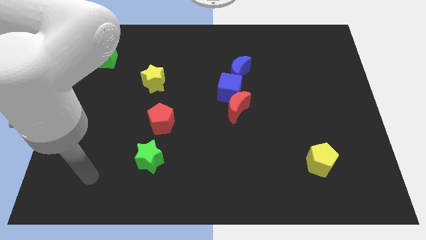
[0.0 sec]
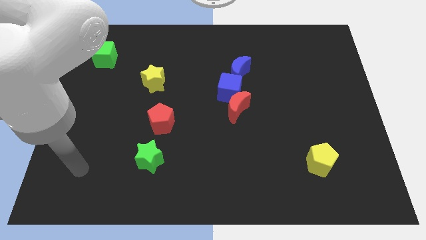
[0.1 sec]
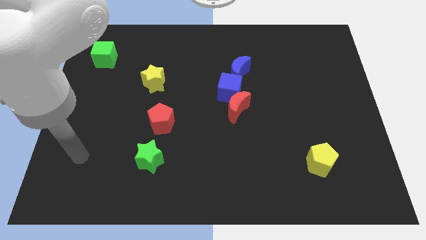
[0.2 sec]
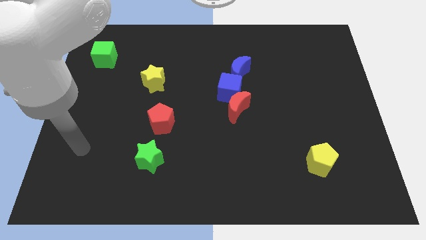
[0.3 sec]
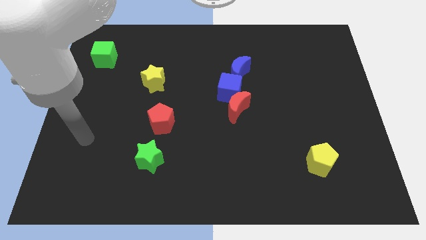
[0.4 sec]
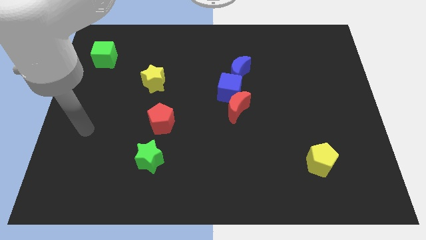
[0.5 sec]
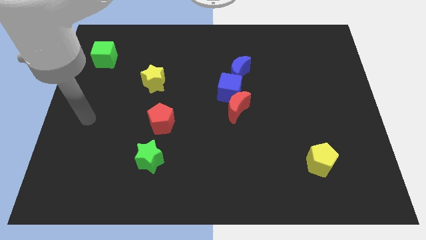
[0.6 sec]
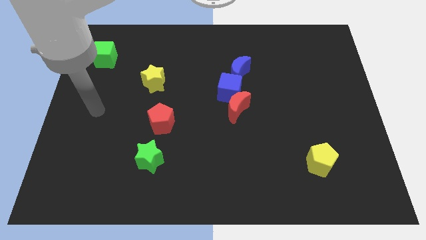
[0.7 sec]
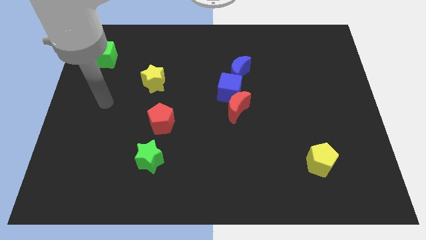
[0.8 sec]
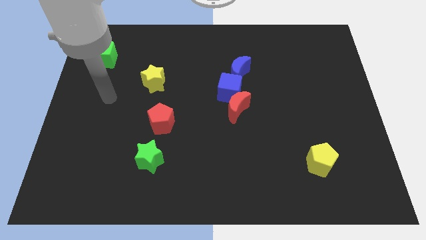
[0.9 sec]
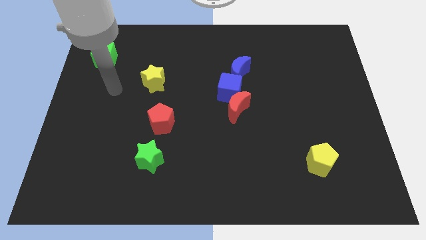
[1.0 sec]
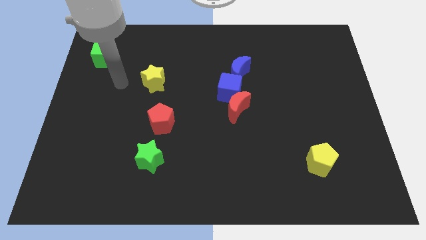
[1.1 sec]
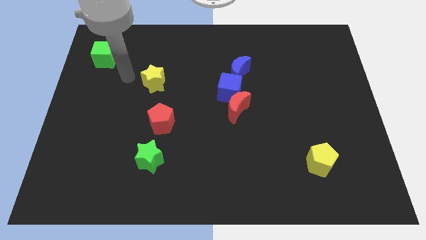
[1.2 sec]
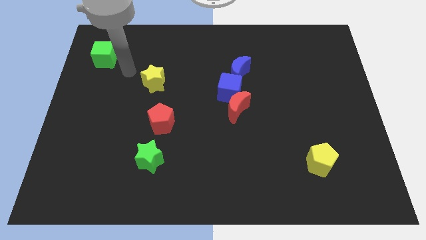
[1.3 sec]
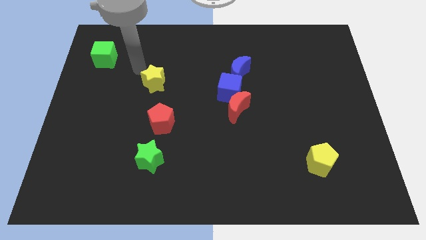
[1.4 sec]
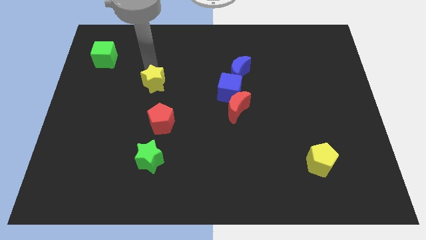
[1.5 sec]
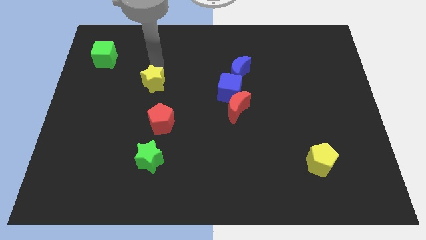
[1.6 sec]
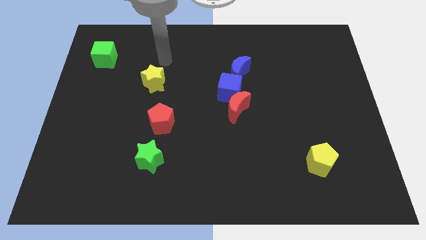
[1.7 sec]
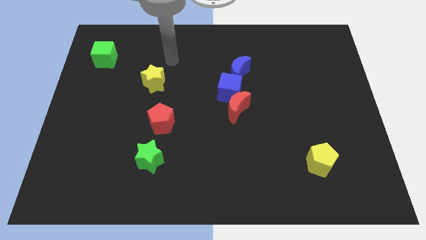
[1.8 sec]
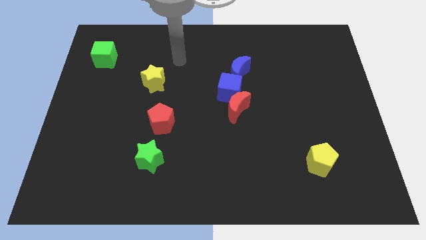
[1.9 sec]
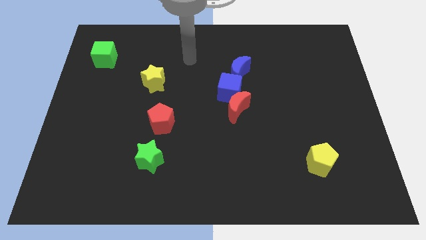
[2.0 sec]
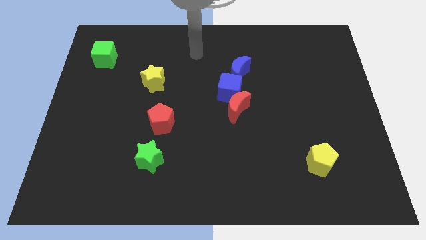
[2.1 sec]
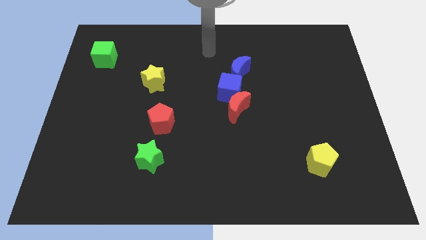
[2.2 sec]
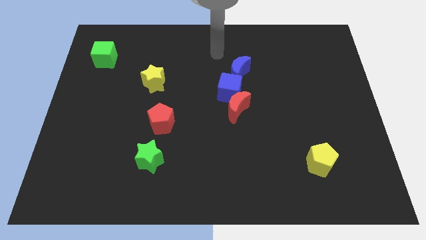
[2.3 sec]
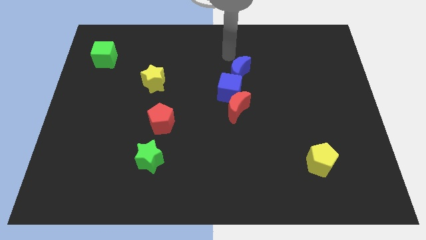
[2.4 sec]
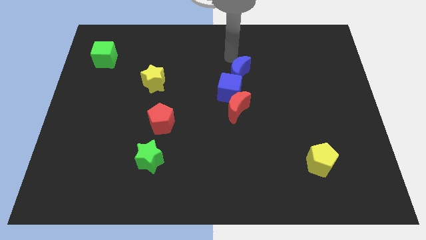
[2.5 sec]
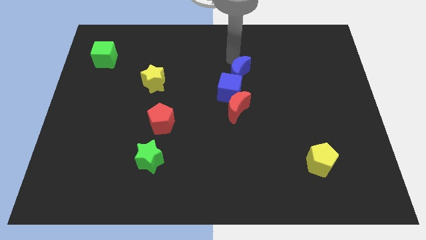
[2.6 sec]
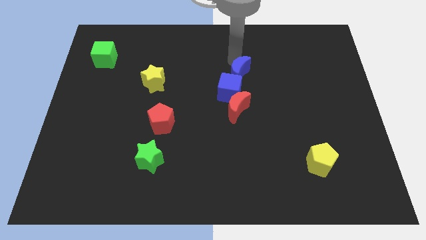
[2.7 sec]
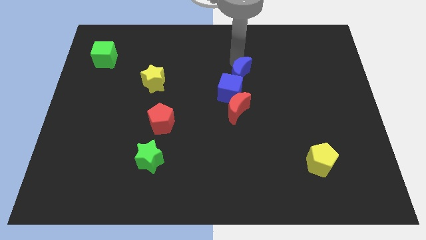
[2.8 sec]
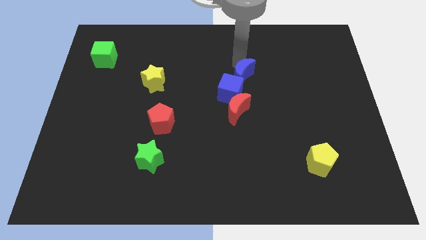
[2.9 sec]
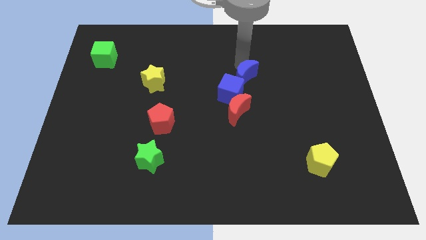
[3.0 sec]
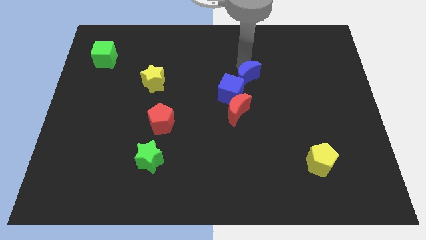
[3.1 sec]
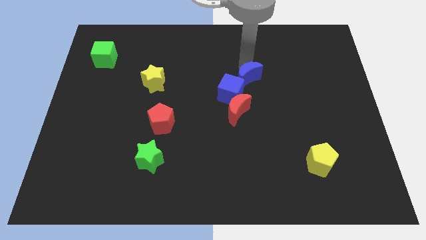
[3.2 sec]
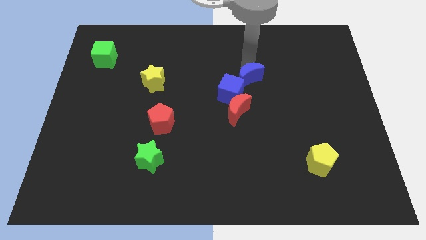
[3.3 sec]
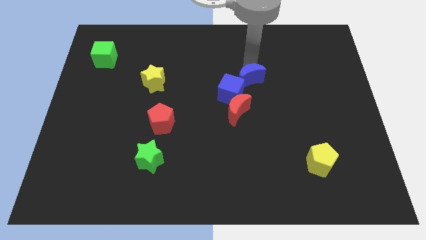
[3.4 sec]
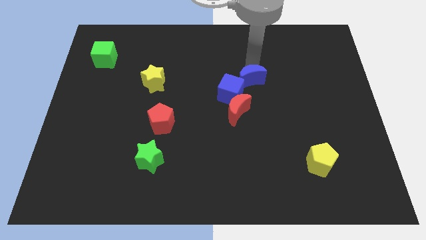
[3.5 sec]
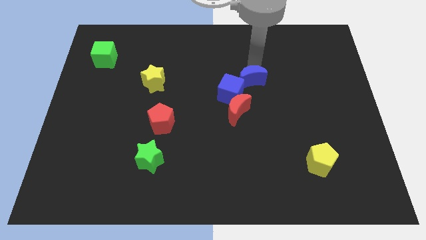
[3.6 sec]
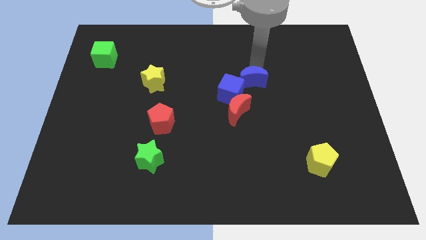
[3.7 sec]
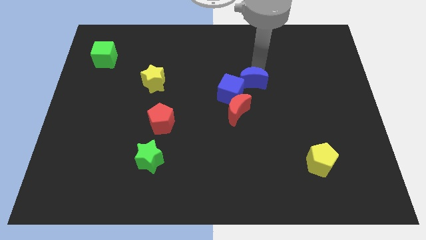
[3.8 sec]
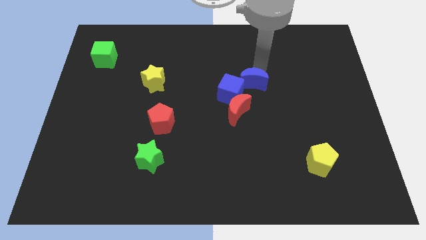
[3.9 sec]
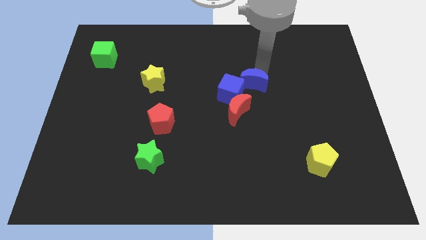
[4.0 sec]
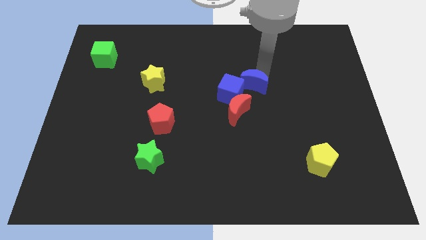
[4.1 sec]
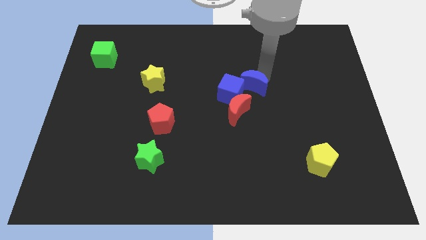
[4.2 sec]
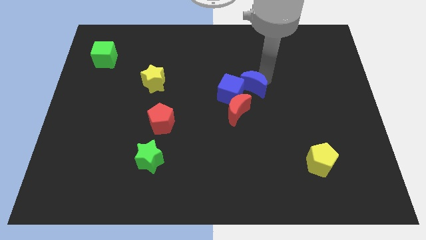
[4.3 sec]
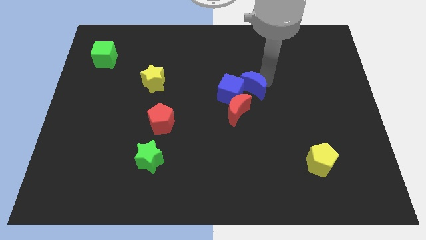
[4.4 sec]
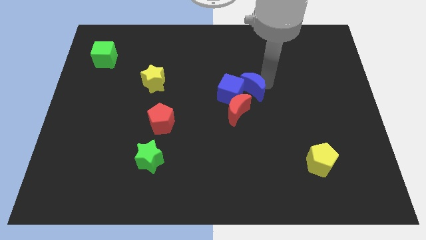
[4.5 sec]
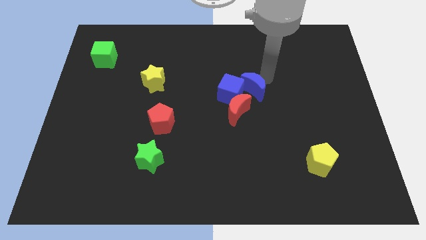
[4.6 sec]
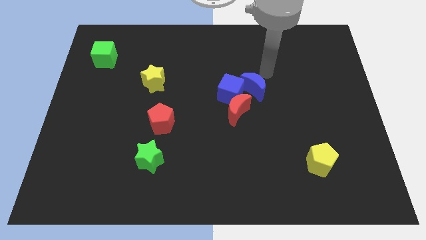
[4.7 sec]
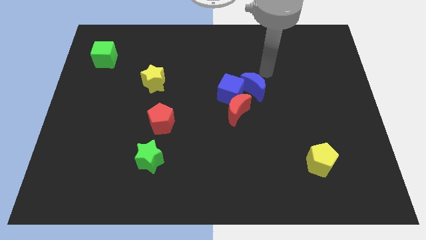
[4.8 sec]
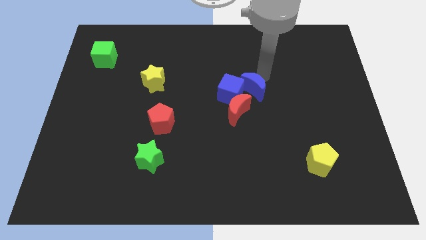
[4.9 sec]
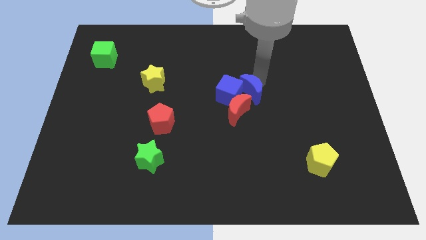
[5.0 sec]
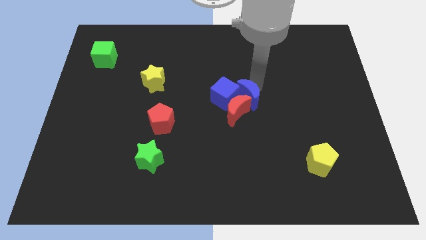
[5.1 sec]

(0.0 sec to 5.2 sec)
slide the blue moon to the red moon

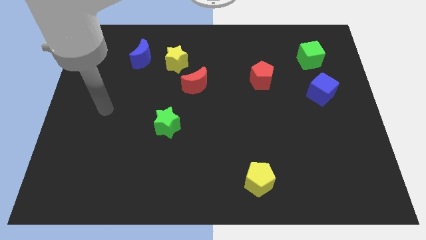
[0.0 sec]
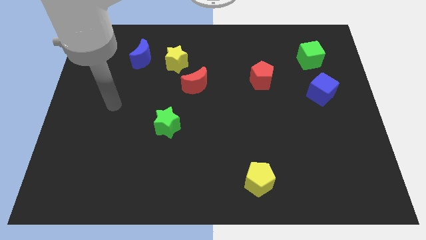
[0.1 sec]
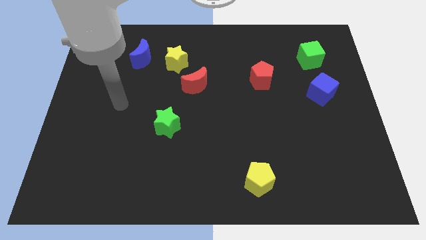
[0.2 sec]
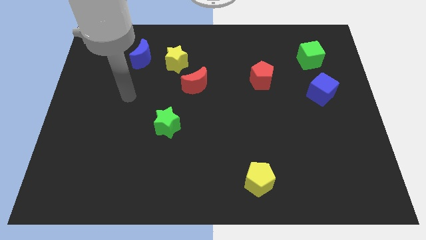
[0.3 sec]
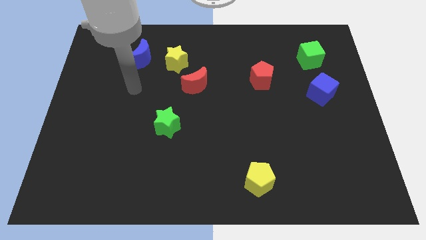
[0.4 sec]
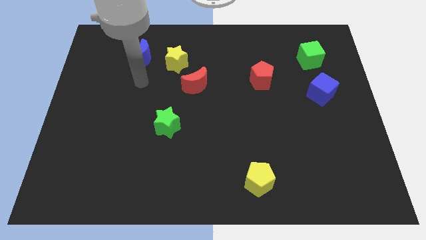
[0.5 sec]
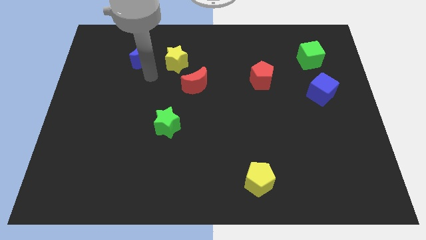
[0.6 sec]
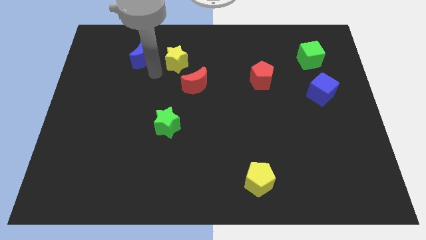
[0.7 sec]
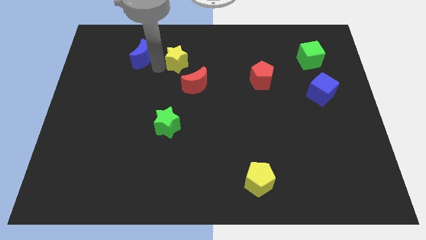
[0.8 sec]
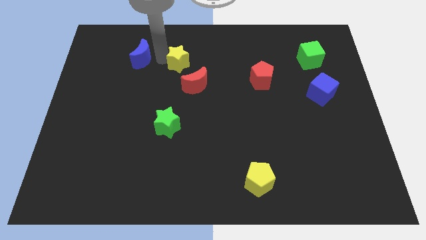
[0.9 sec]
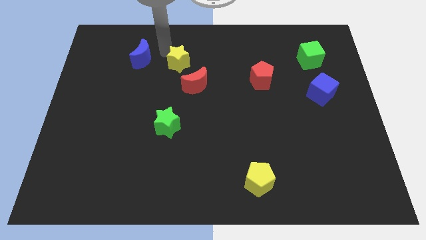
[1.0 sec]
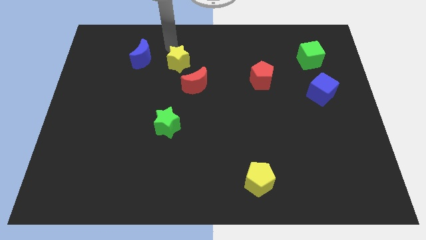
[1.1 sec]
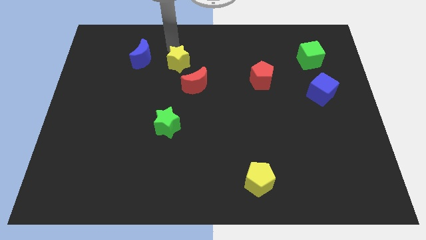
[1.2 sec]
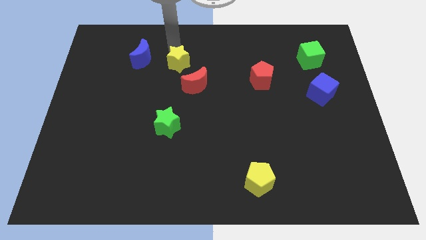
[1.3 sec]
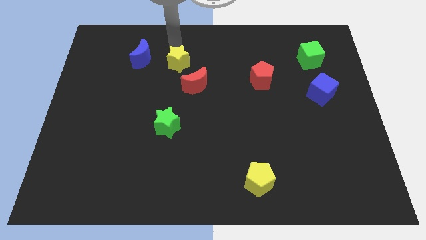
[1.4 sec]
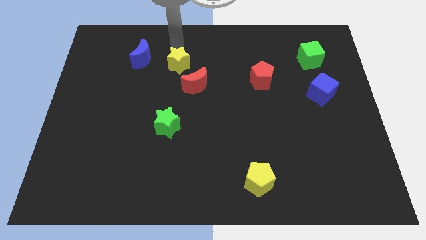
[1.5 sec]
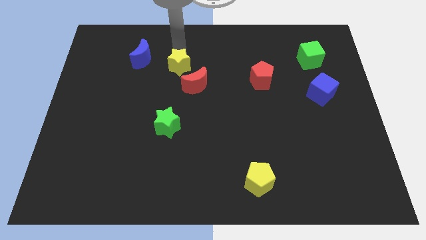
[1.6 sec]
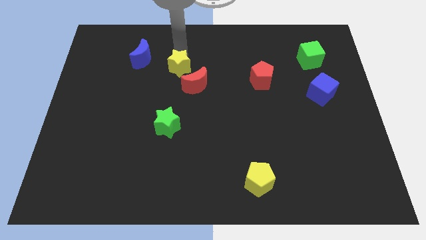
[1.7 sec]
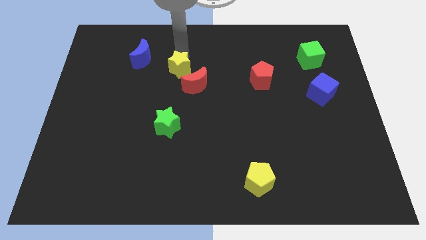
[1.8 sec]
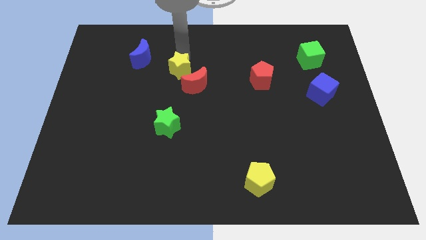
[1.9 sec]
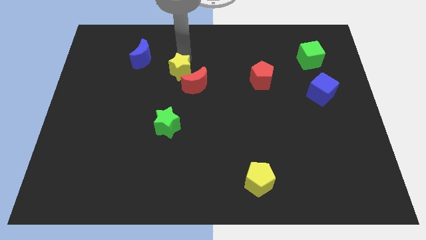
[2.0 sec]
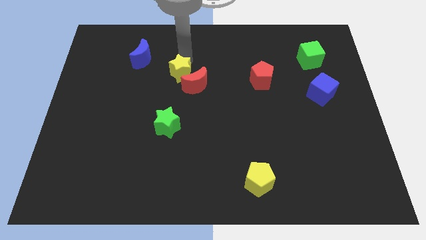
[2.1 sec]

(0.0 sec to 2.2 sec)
put the yellow star next to the red moon
